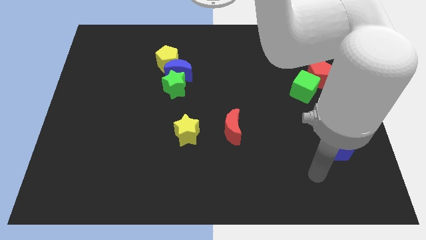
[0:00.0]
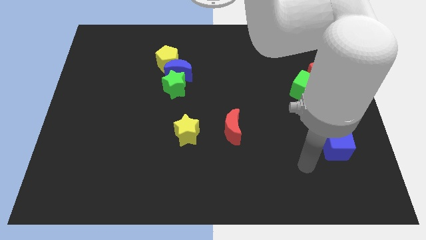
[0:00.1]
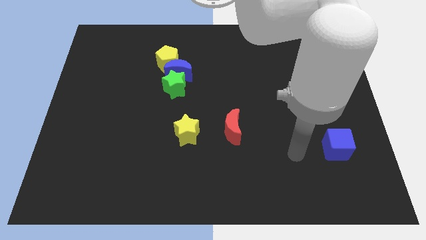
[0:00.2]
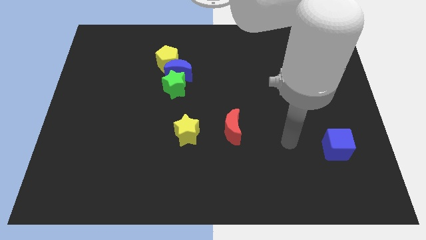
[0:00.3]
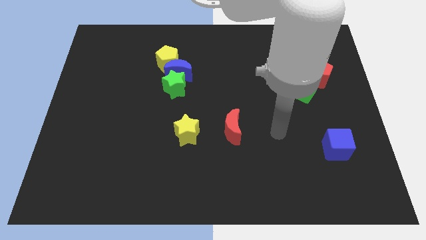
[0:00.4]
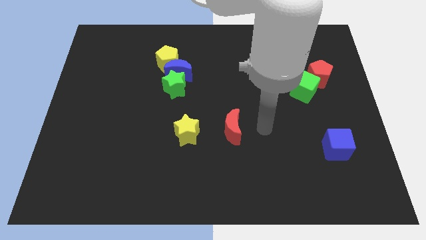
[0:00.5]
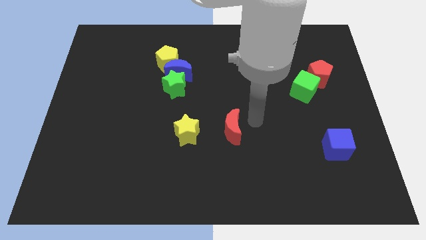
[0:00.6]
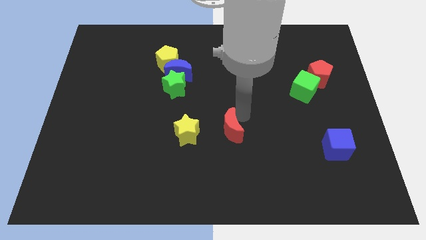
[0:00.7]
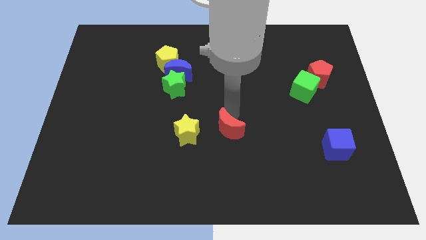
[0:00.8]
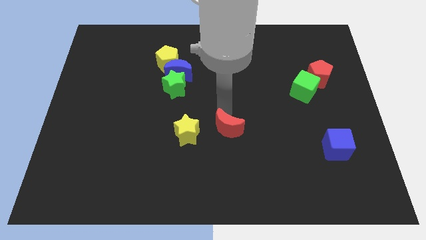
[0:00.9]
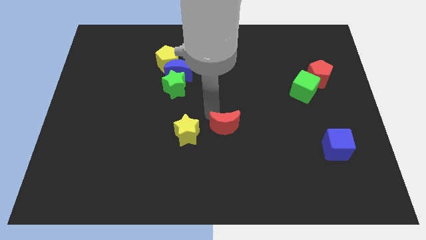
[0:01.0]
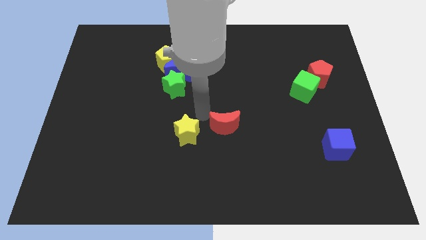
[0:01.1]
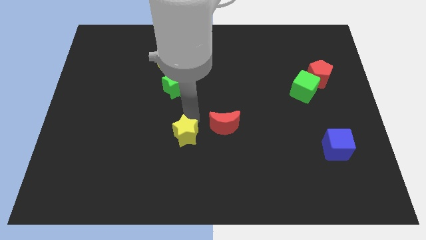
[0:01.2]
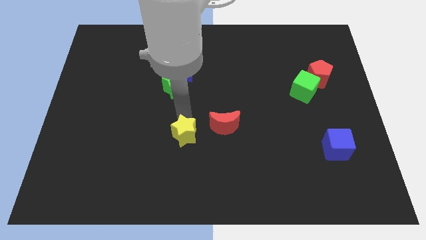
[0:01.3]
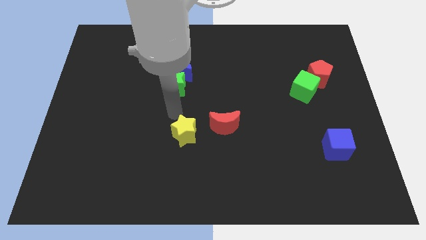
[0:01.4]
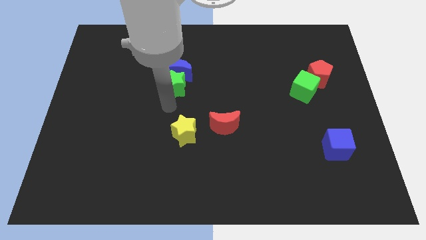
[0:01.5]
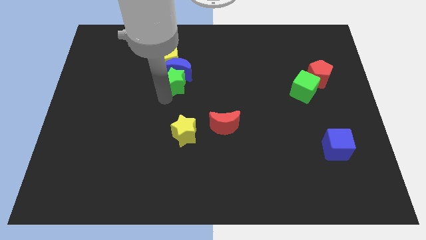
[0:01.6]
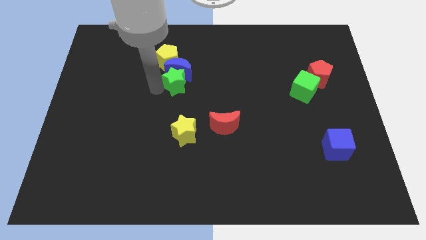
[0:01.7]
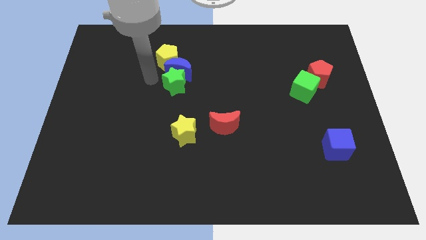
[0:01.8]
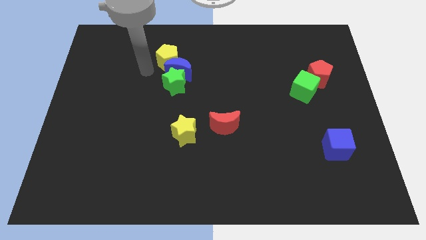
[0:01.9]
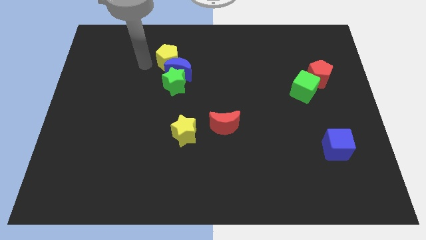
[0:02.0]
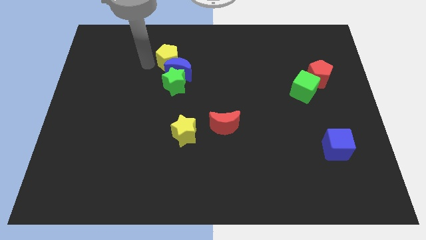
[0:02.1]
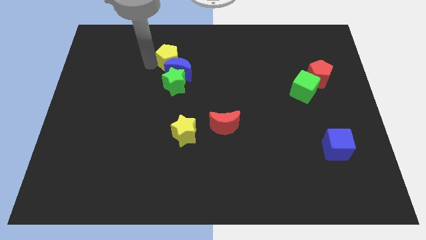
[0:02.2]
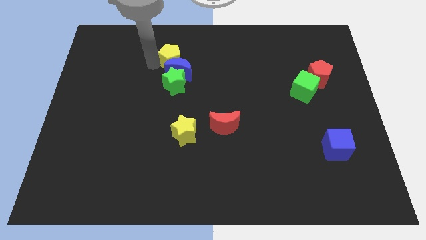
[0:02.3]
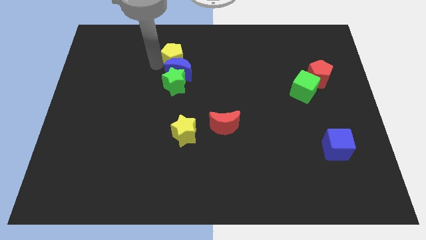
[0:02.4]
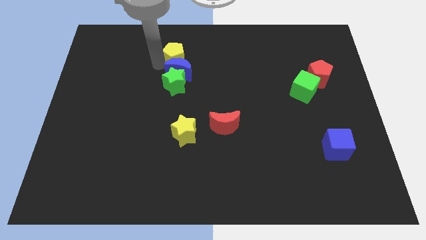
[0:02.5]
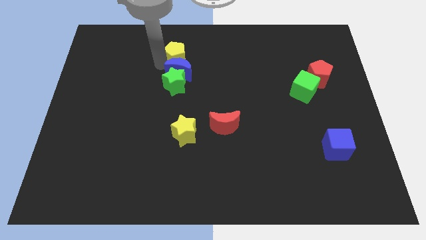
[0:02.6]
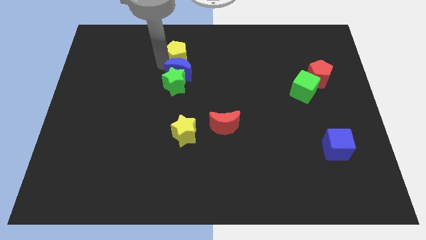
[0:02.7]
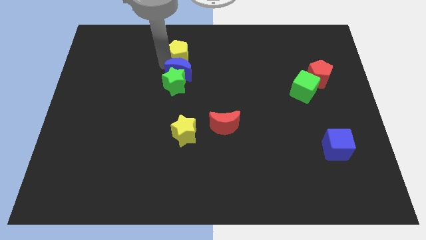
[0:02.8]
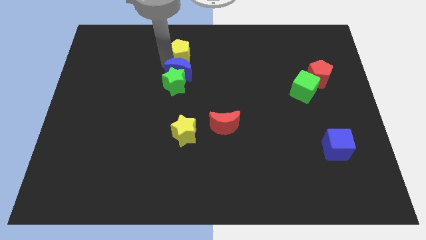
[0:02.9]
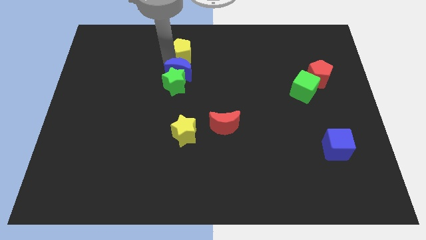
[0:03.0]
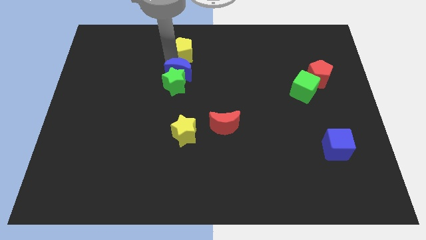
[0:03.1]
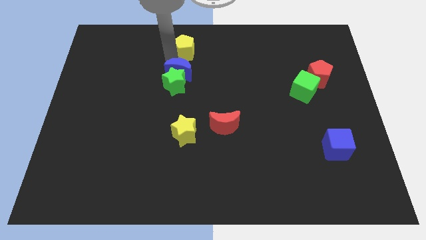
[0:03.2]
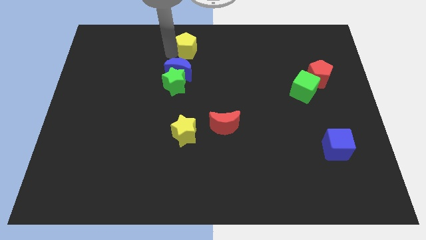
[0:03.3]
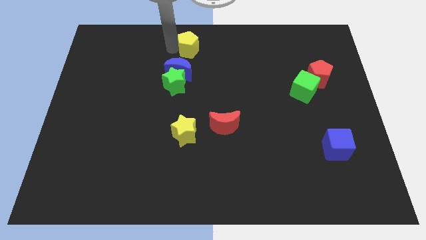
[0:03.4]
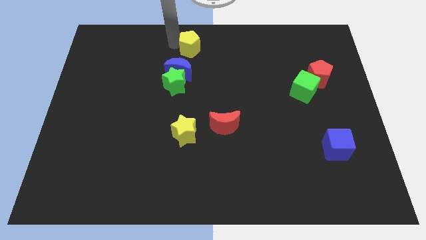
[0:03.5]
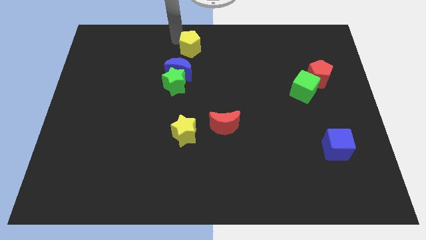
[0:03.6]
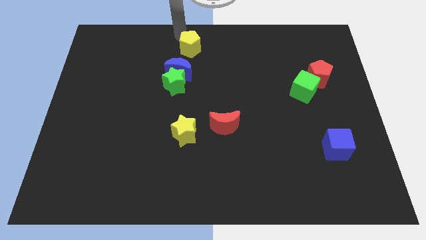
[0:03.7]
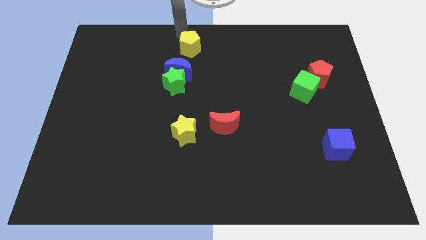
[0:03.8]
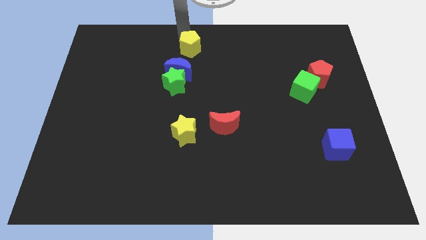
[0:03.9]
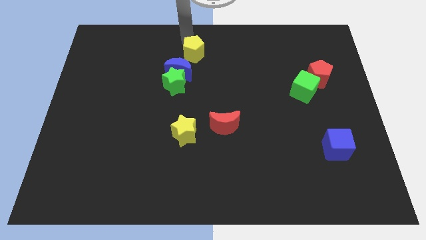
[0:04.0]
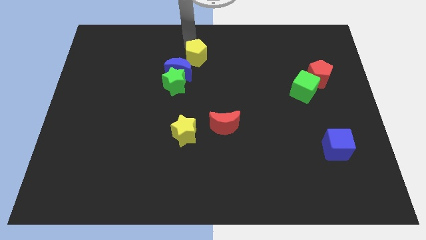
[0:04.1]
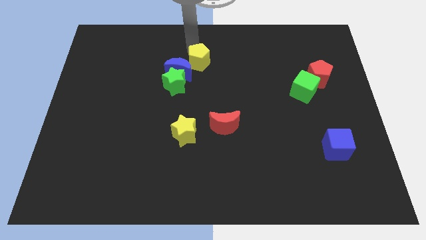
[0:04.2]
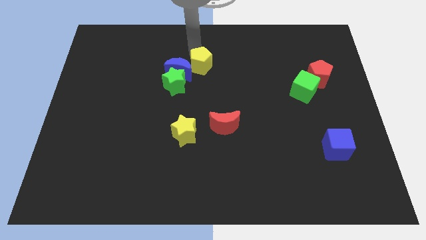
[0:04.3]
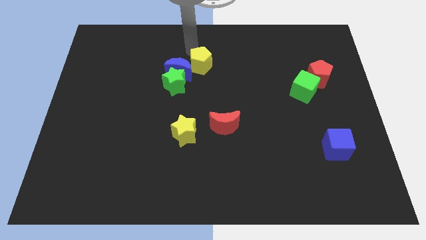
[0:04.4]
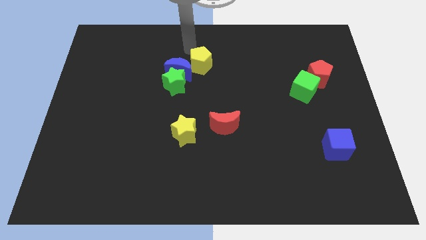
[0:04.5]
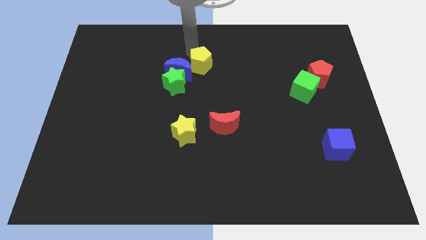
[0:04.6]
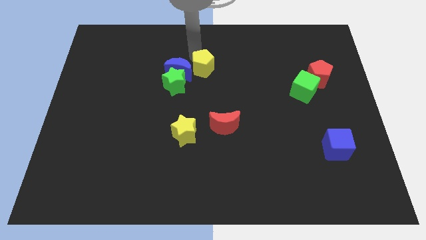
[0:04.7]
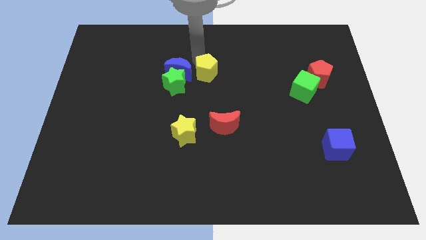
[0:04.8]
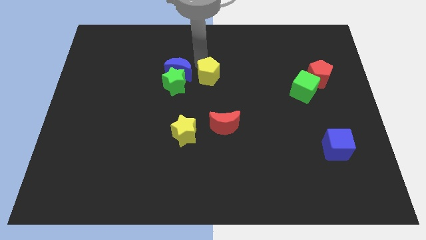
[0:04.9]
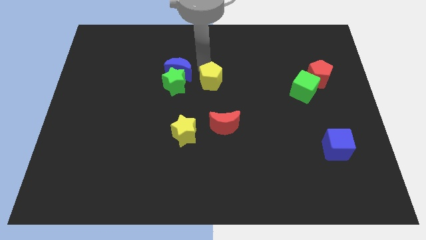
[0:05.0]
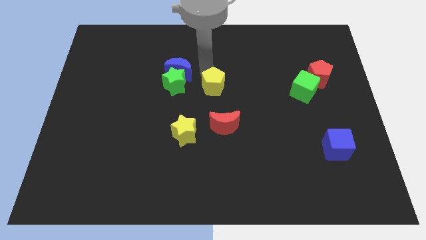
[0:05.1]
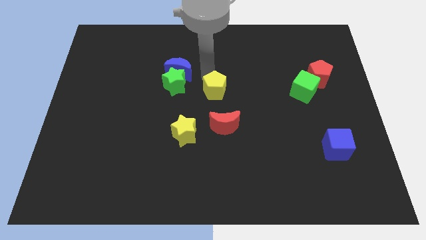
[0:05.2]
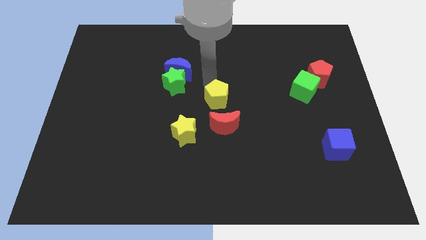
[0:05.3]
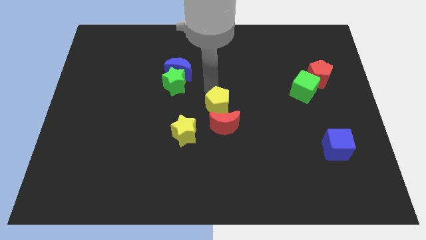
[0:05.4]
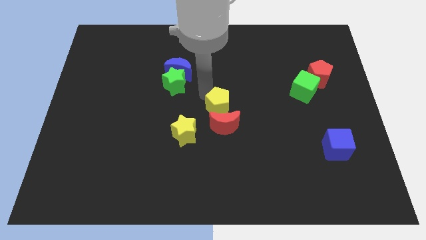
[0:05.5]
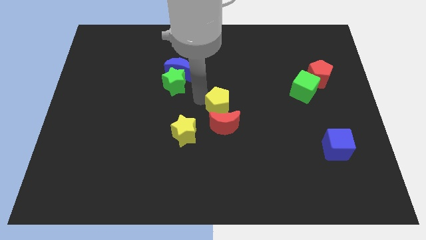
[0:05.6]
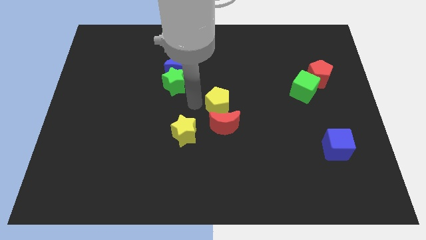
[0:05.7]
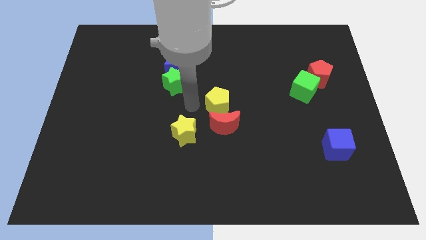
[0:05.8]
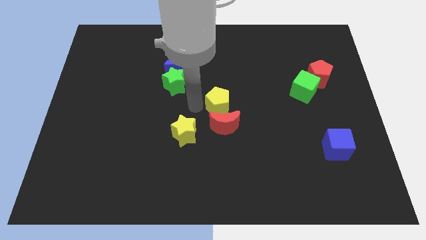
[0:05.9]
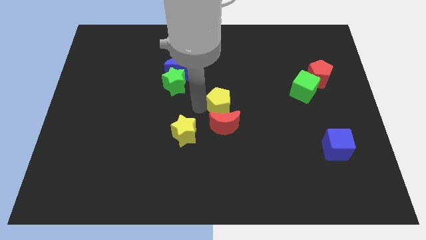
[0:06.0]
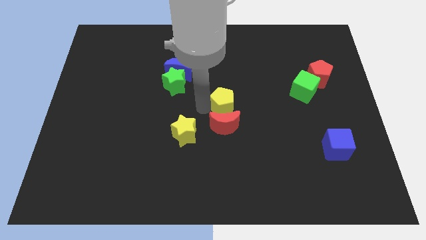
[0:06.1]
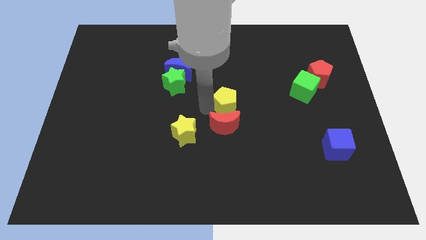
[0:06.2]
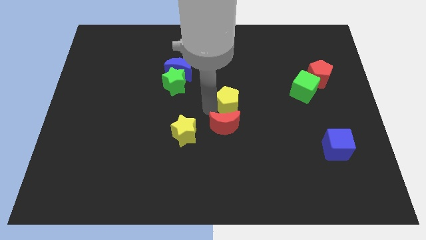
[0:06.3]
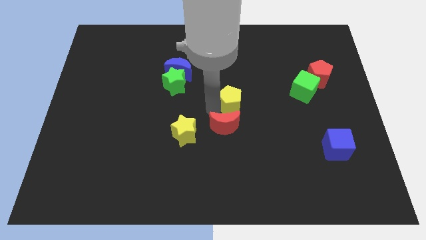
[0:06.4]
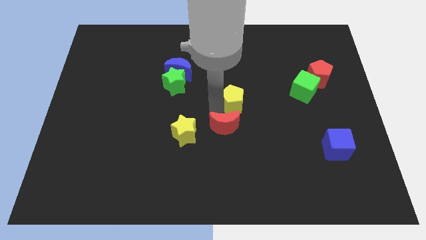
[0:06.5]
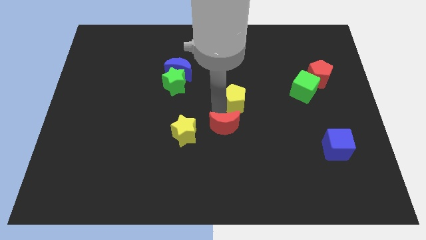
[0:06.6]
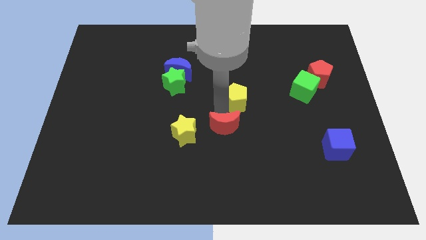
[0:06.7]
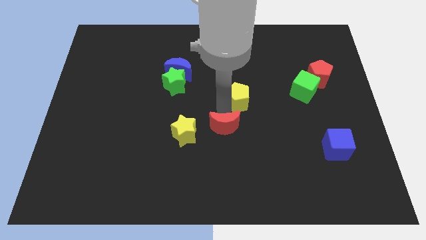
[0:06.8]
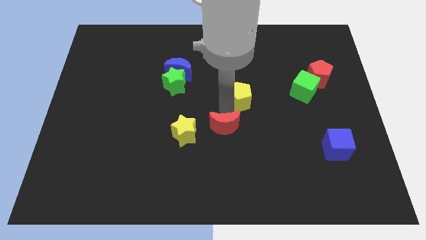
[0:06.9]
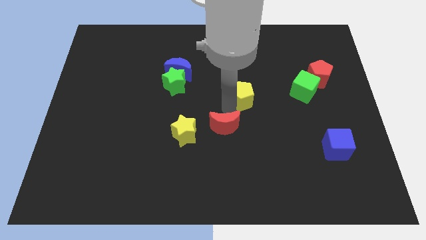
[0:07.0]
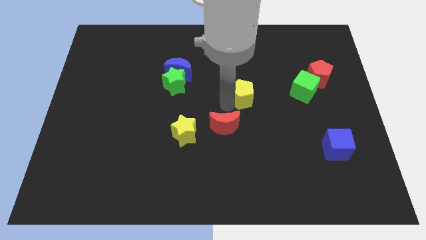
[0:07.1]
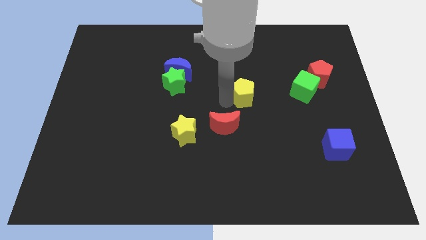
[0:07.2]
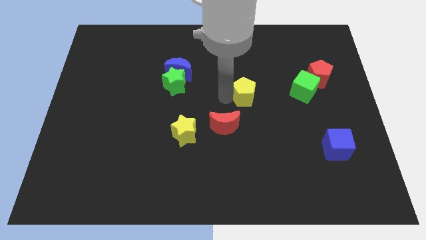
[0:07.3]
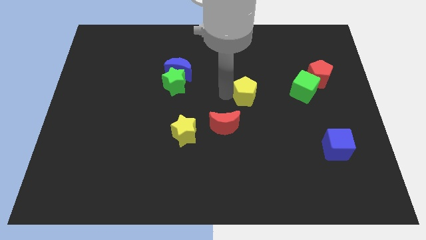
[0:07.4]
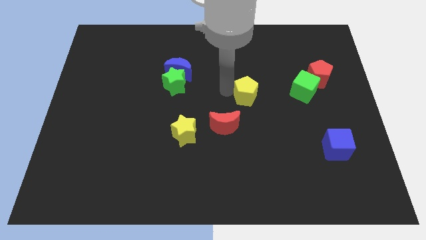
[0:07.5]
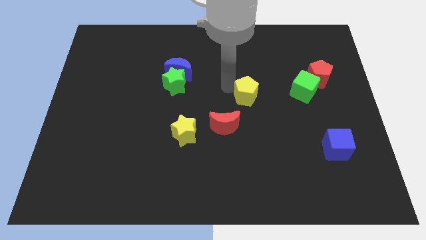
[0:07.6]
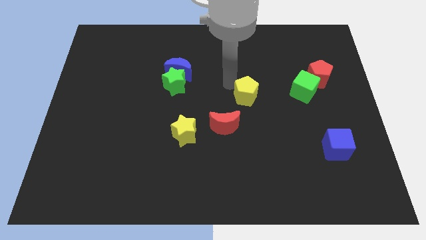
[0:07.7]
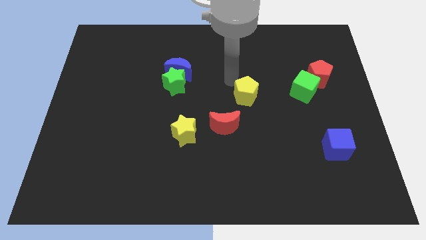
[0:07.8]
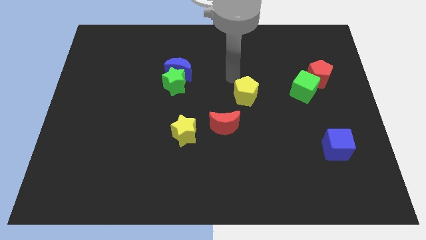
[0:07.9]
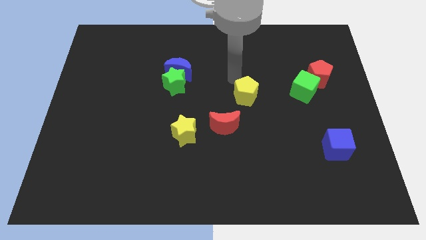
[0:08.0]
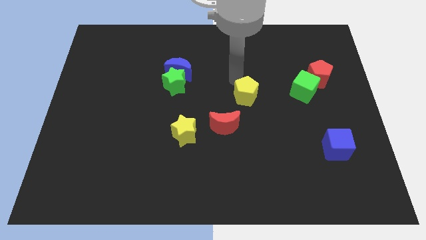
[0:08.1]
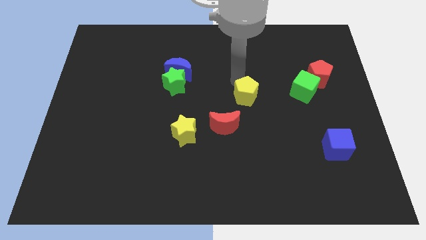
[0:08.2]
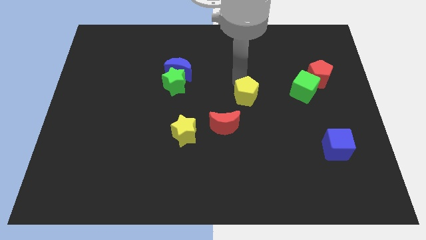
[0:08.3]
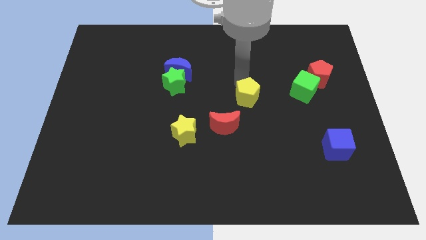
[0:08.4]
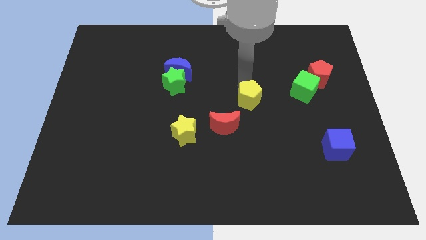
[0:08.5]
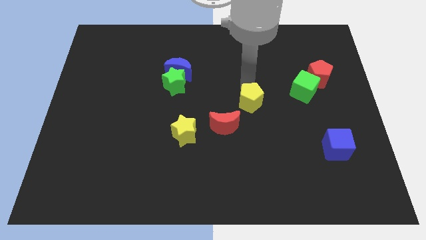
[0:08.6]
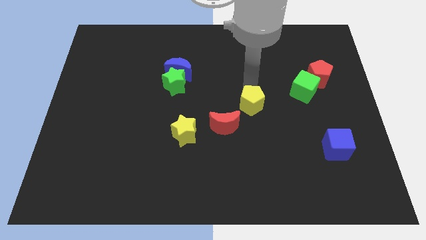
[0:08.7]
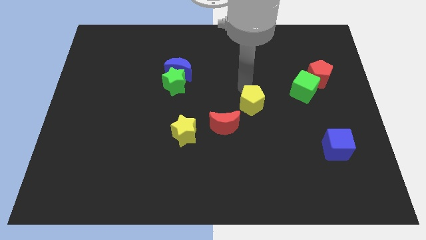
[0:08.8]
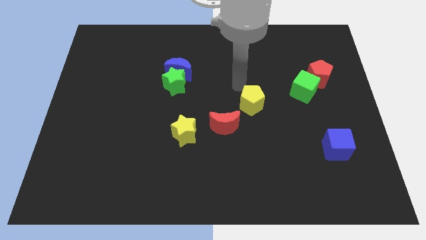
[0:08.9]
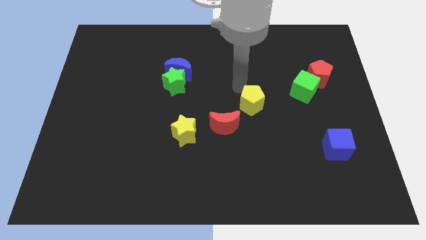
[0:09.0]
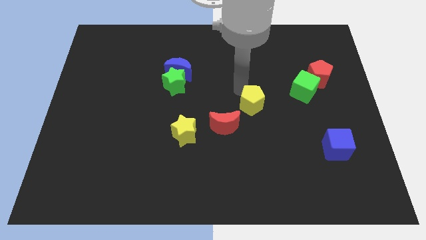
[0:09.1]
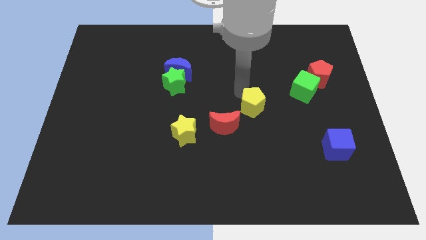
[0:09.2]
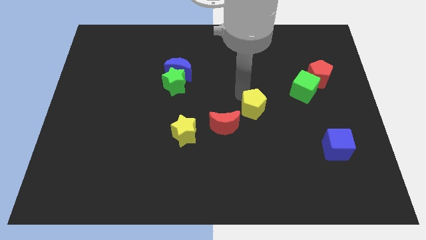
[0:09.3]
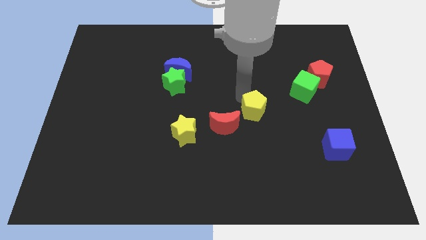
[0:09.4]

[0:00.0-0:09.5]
slide the yellow pentagon right of the red moon
